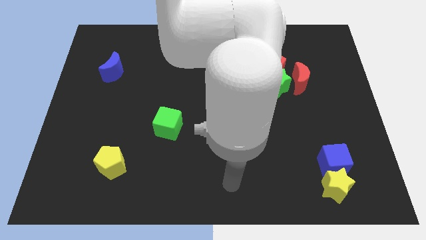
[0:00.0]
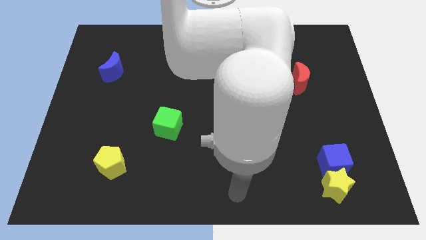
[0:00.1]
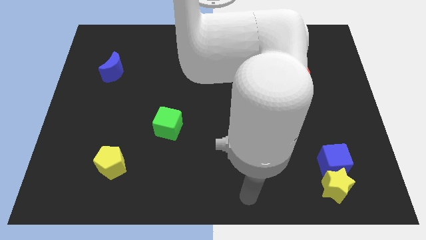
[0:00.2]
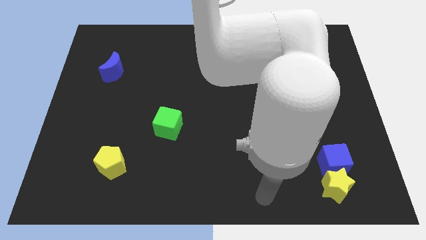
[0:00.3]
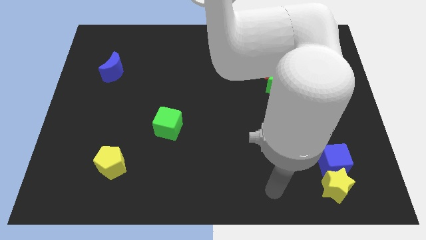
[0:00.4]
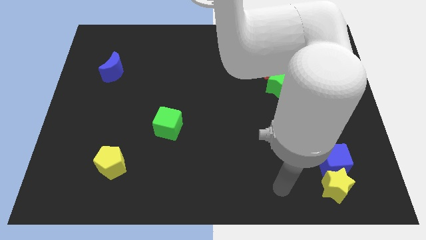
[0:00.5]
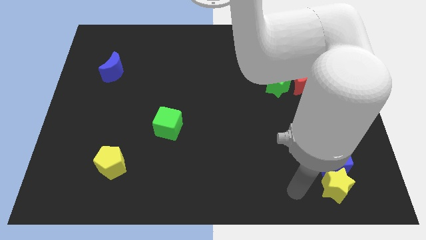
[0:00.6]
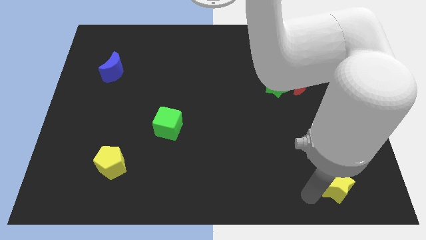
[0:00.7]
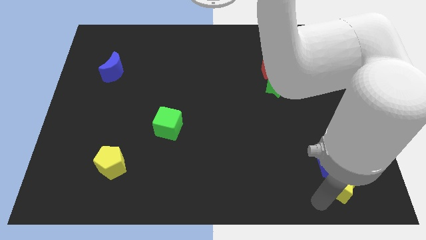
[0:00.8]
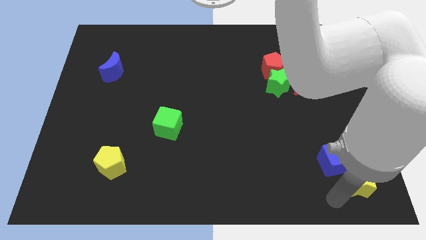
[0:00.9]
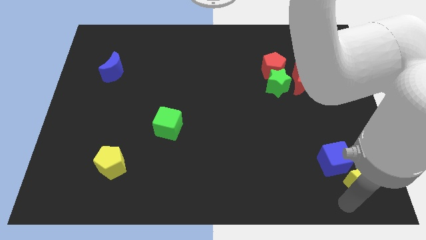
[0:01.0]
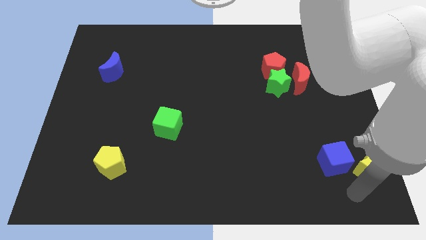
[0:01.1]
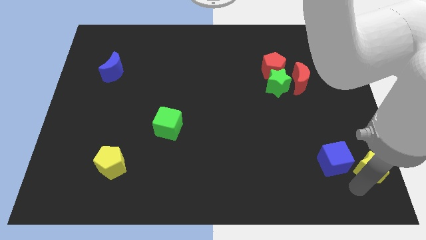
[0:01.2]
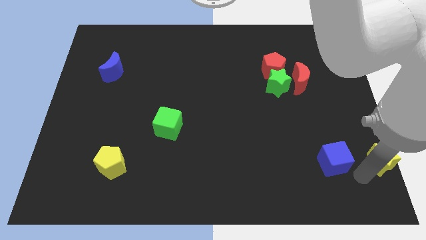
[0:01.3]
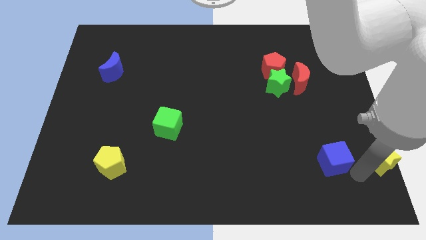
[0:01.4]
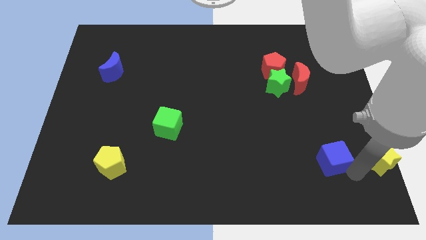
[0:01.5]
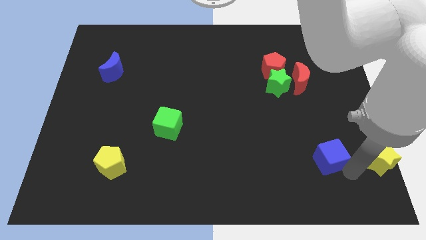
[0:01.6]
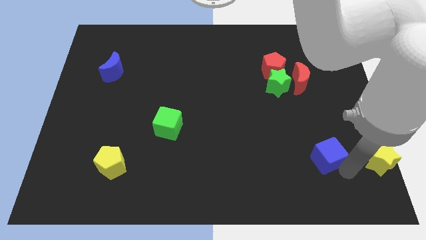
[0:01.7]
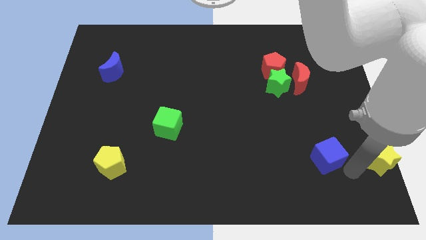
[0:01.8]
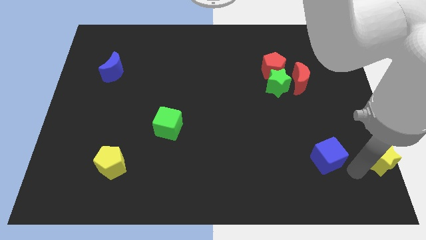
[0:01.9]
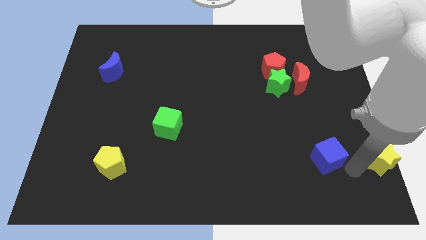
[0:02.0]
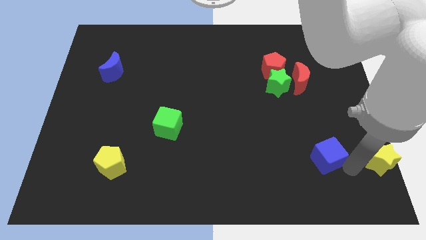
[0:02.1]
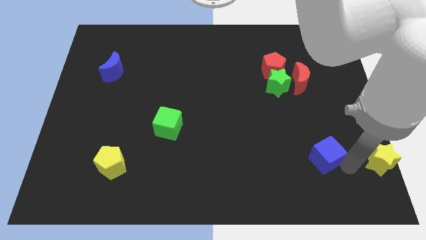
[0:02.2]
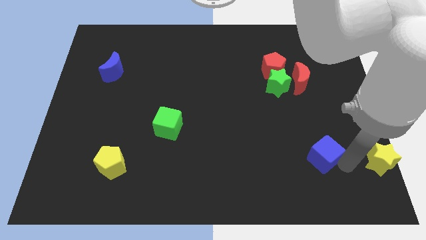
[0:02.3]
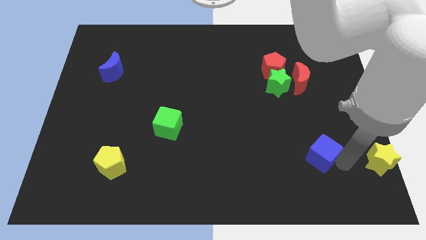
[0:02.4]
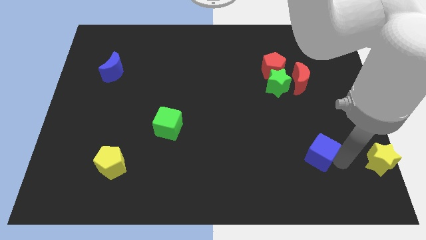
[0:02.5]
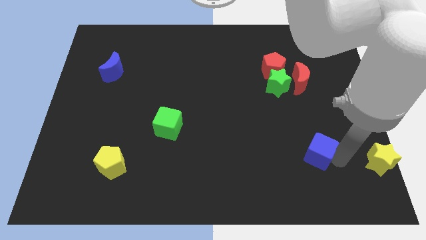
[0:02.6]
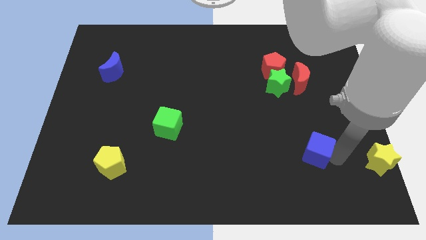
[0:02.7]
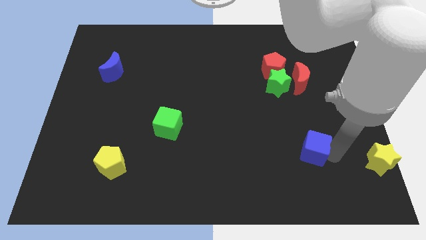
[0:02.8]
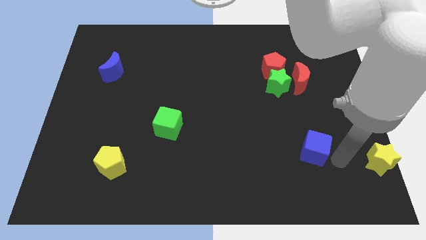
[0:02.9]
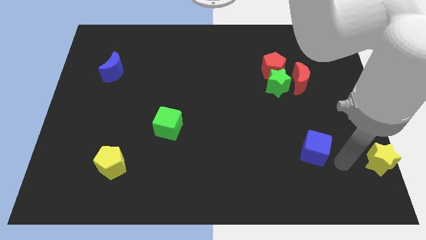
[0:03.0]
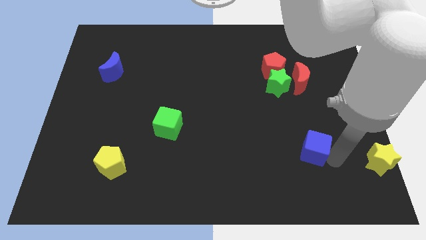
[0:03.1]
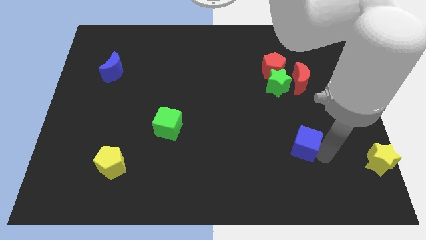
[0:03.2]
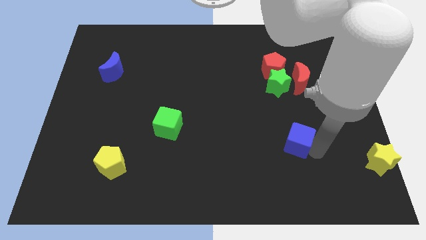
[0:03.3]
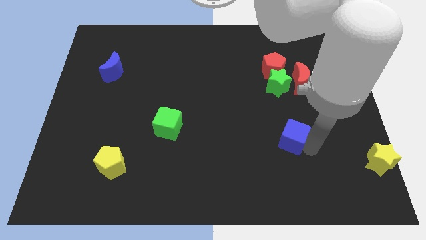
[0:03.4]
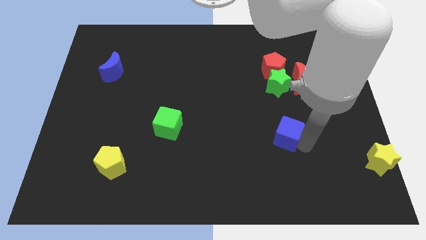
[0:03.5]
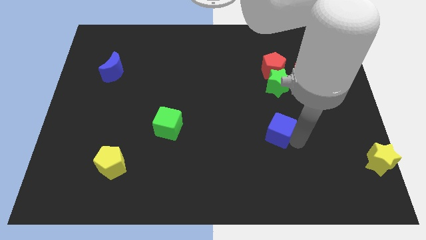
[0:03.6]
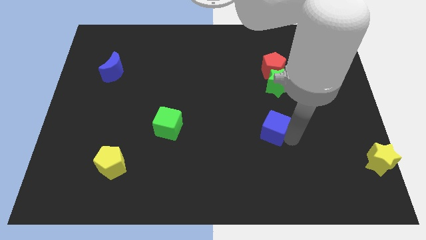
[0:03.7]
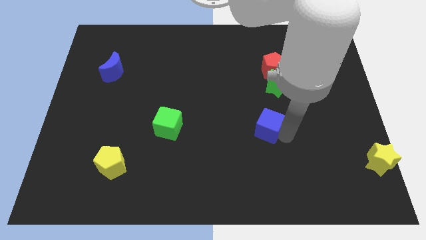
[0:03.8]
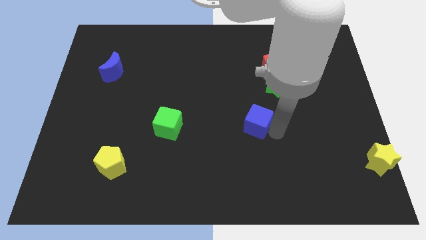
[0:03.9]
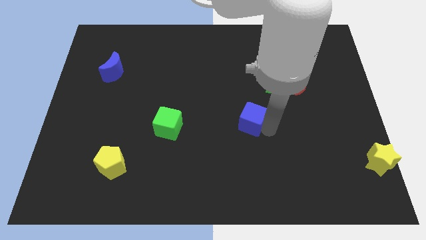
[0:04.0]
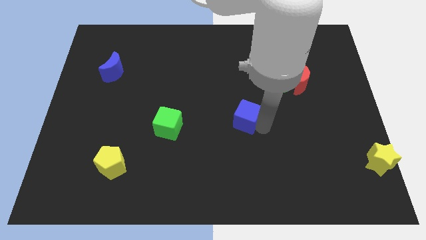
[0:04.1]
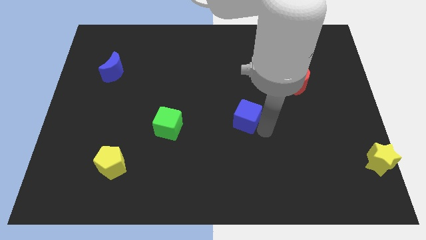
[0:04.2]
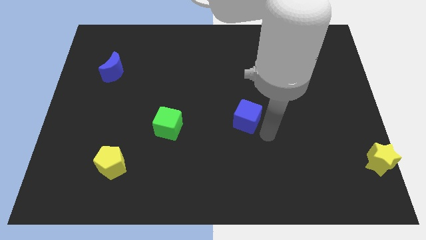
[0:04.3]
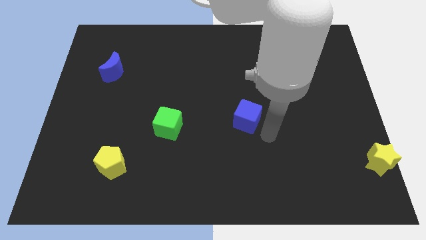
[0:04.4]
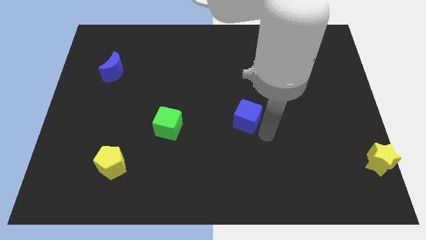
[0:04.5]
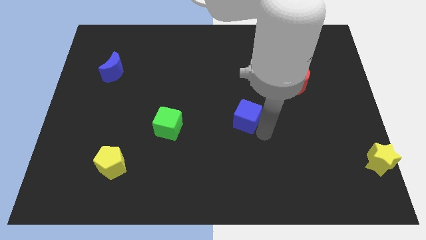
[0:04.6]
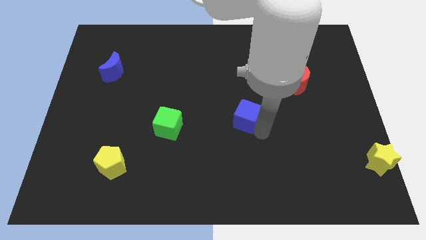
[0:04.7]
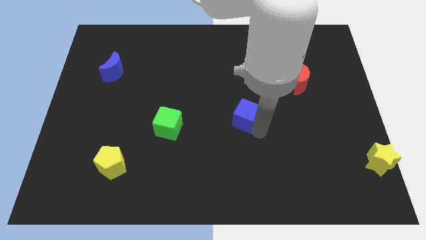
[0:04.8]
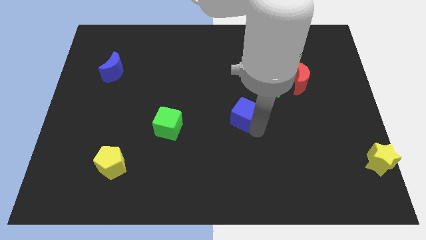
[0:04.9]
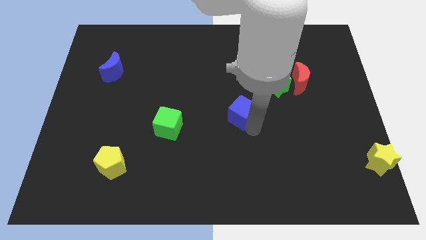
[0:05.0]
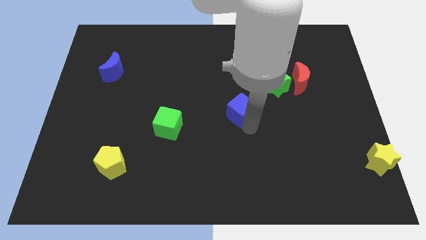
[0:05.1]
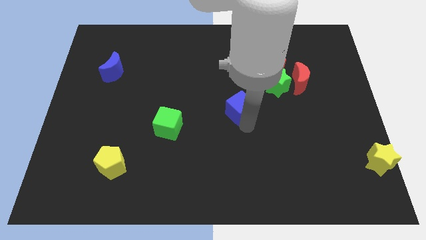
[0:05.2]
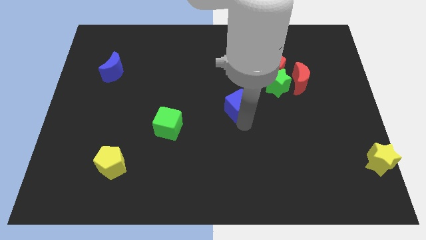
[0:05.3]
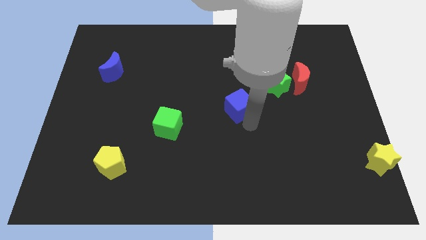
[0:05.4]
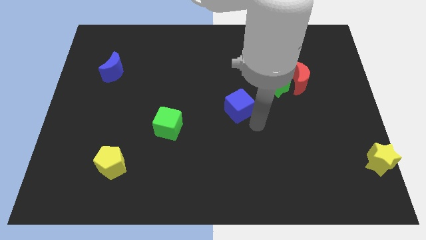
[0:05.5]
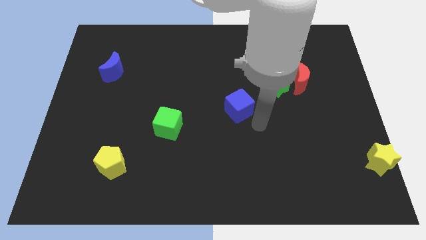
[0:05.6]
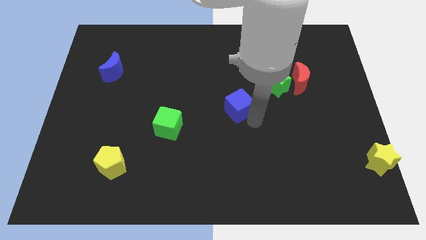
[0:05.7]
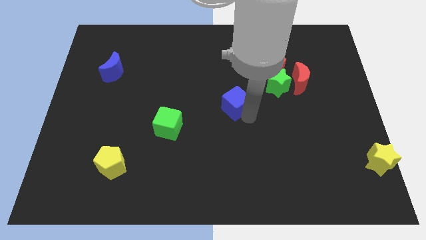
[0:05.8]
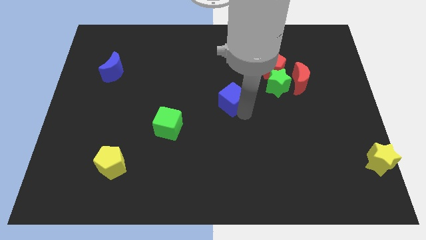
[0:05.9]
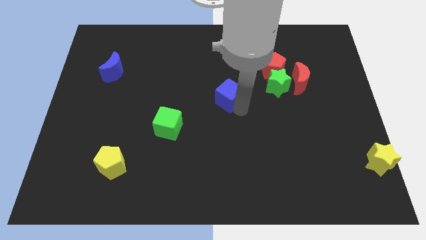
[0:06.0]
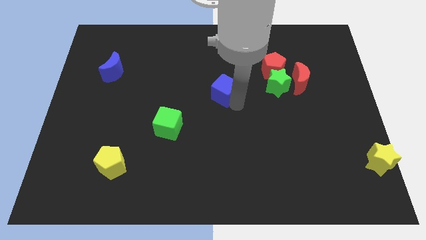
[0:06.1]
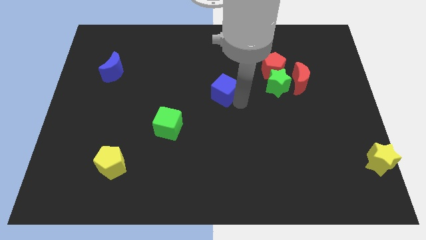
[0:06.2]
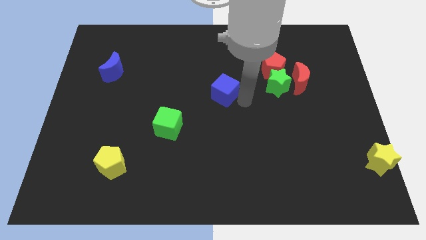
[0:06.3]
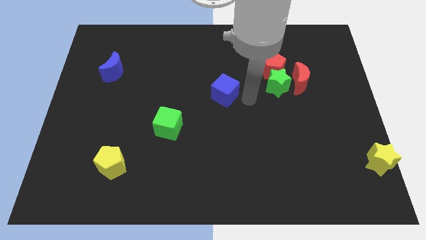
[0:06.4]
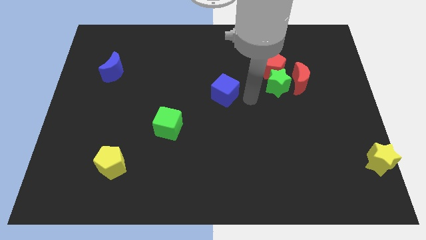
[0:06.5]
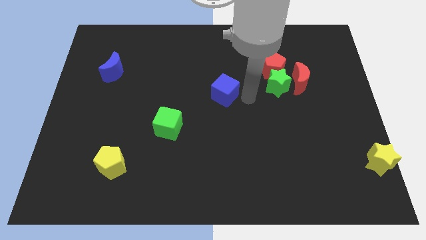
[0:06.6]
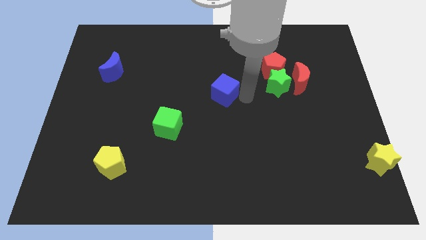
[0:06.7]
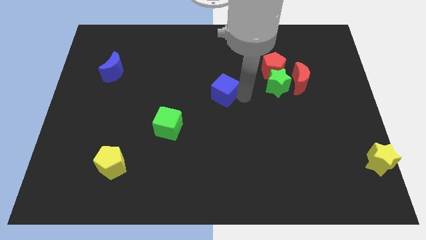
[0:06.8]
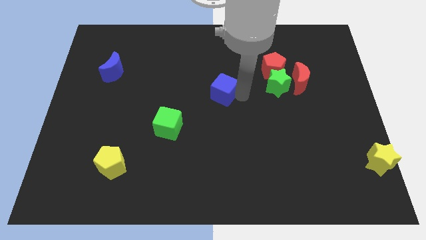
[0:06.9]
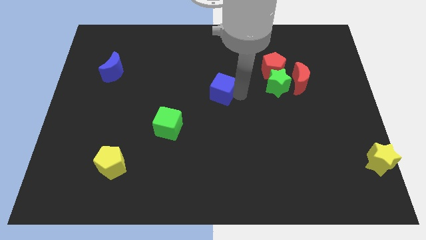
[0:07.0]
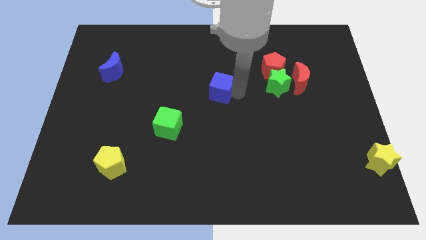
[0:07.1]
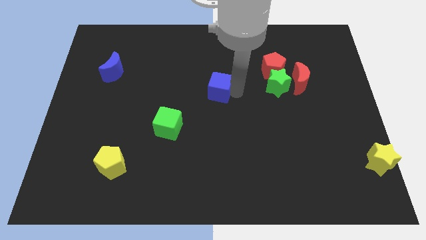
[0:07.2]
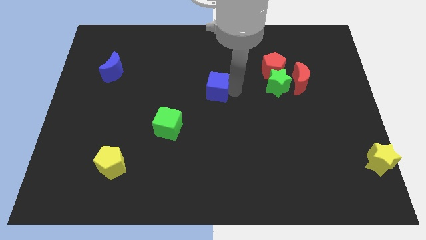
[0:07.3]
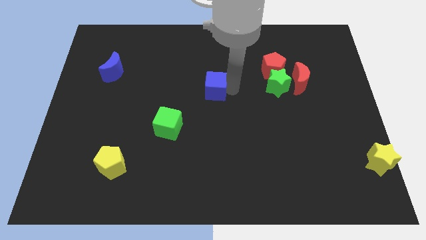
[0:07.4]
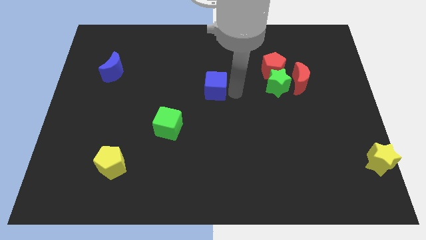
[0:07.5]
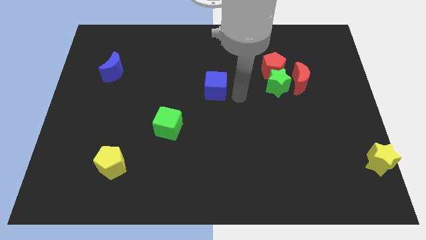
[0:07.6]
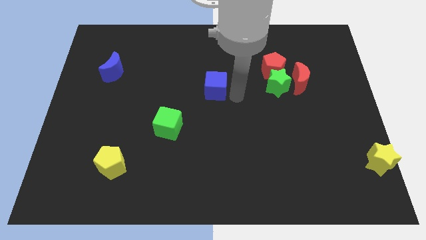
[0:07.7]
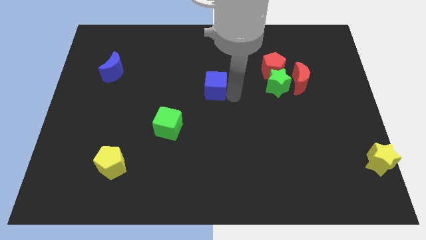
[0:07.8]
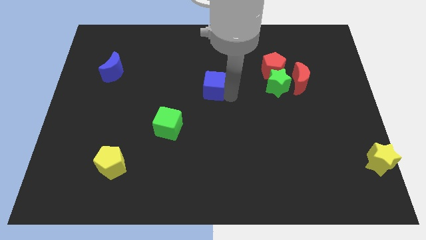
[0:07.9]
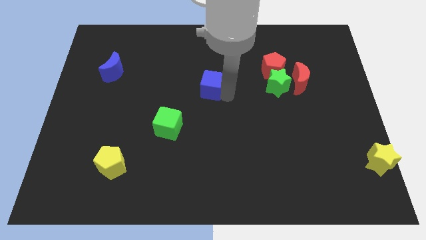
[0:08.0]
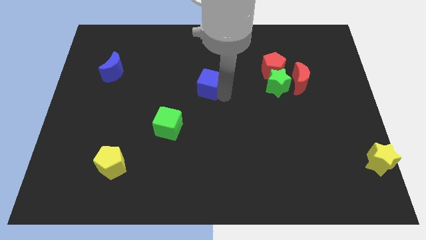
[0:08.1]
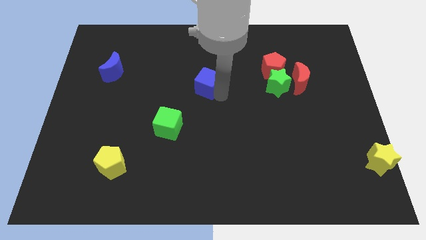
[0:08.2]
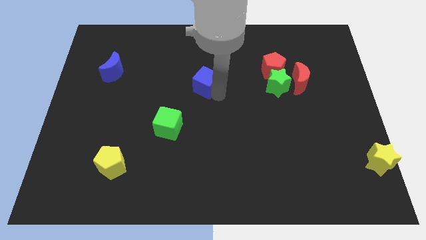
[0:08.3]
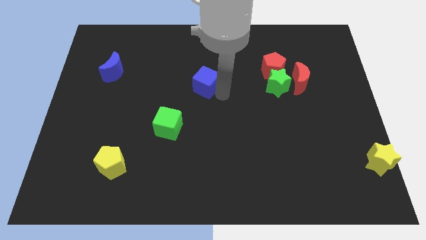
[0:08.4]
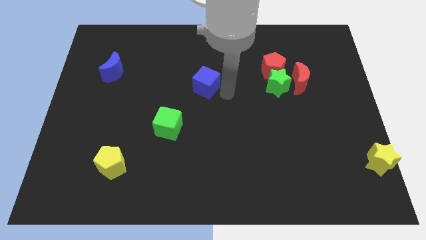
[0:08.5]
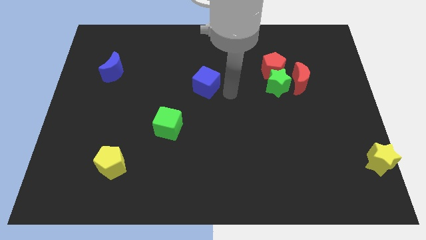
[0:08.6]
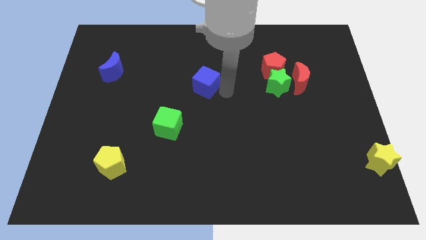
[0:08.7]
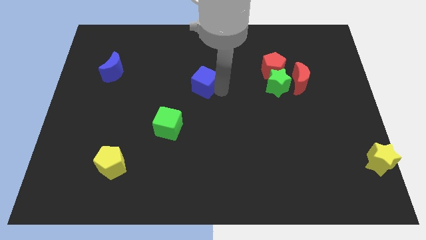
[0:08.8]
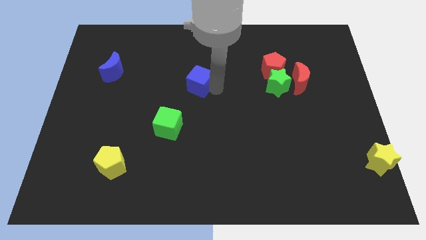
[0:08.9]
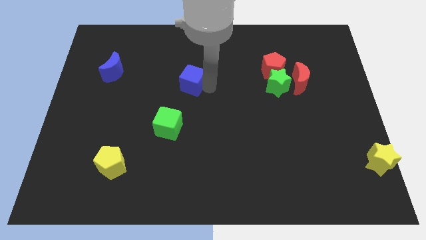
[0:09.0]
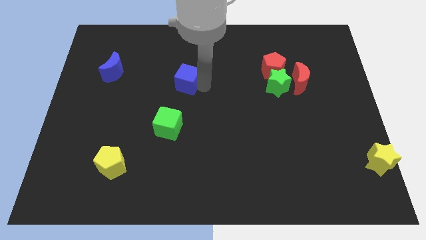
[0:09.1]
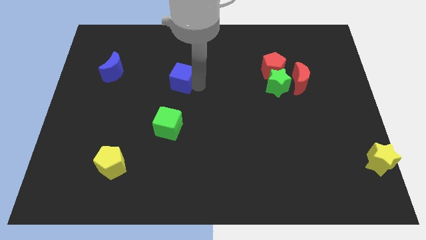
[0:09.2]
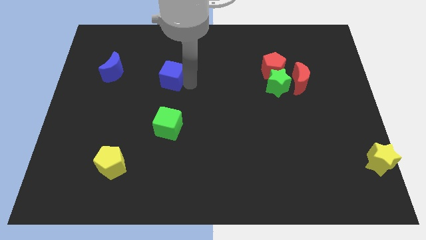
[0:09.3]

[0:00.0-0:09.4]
move the blue cube just right of the blue moon
